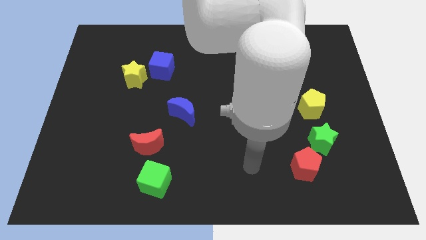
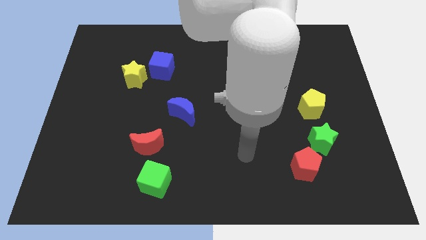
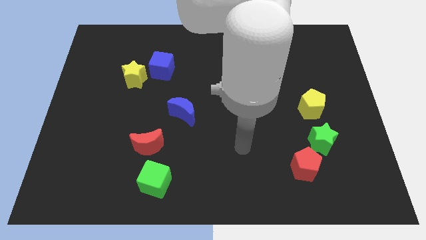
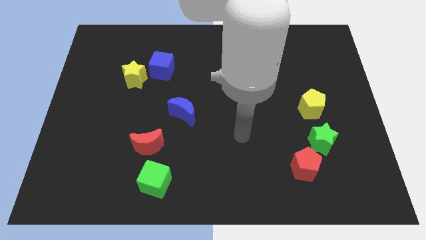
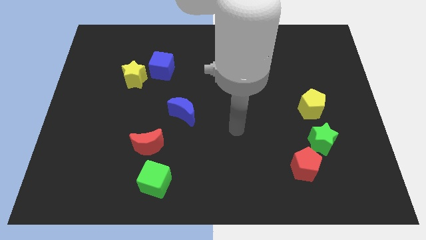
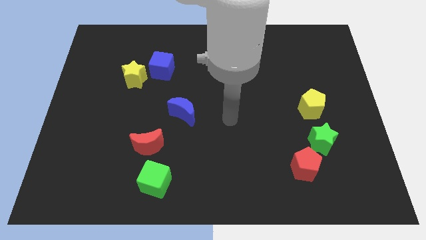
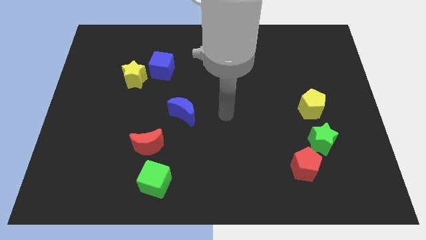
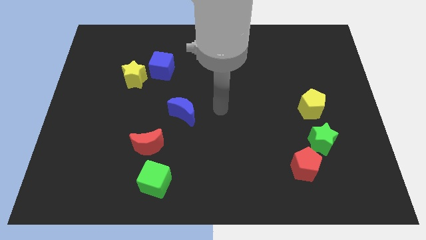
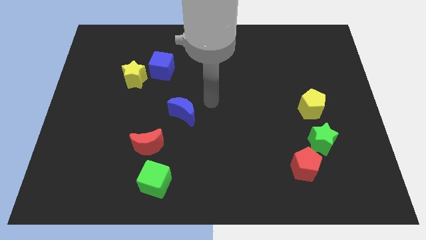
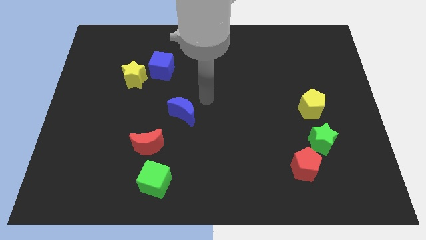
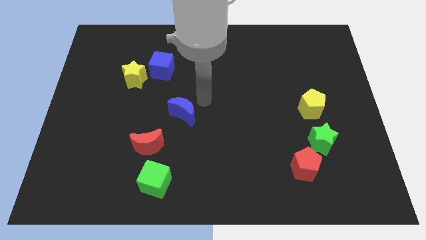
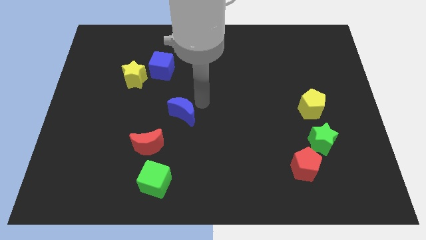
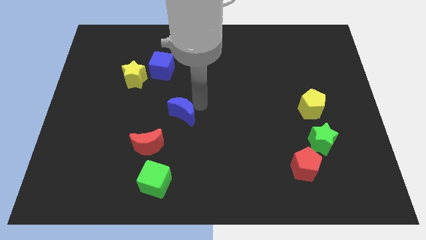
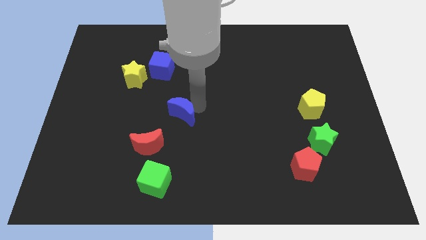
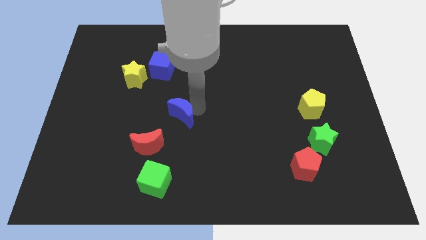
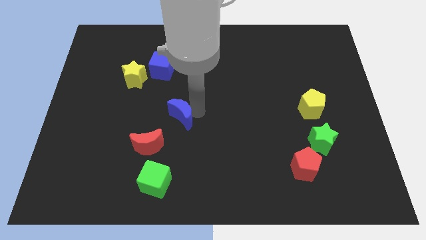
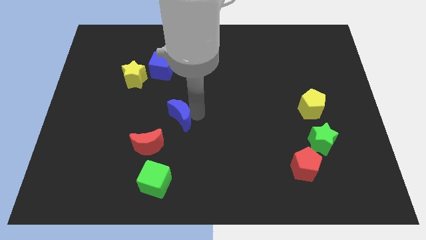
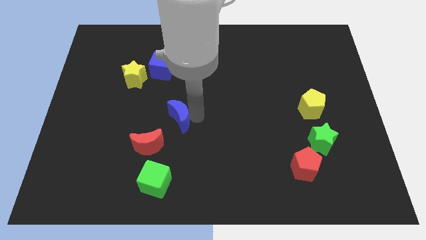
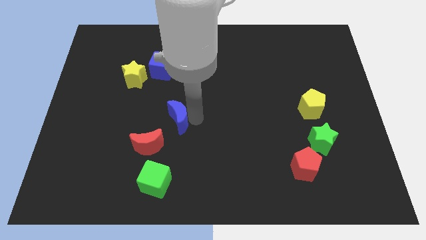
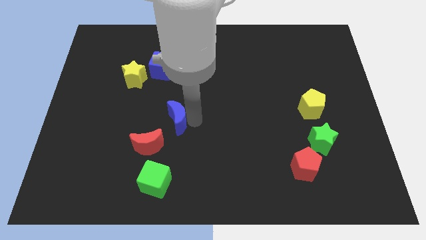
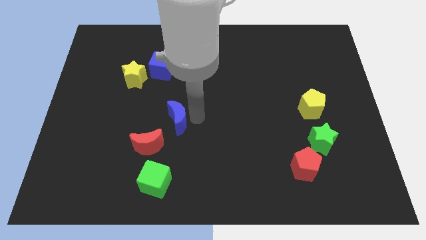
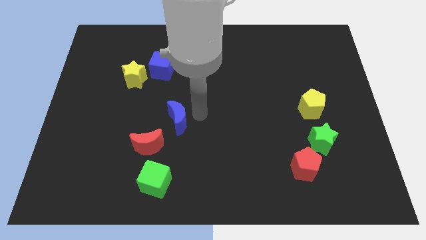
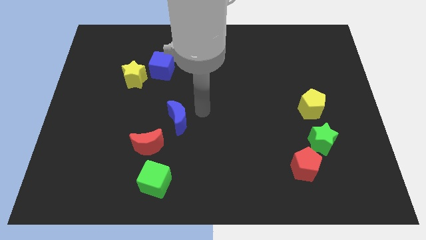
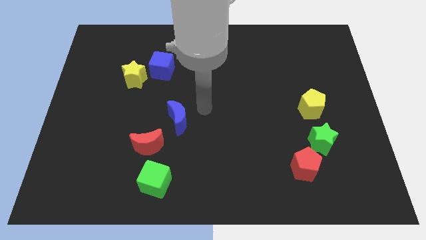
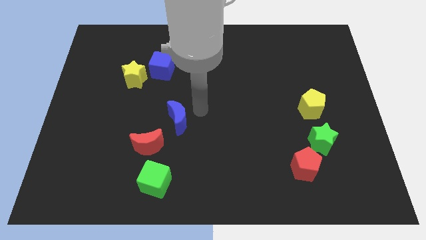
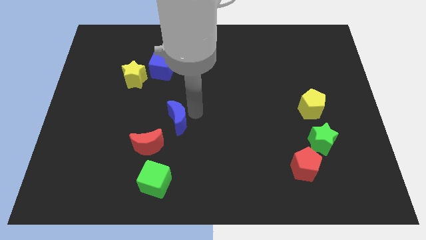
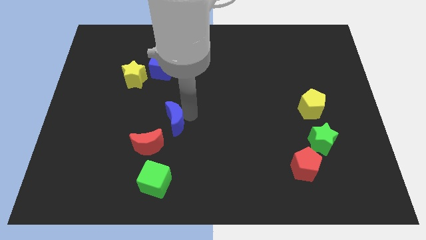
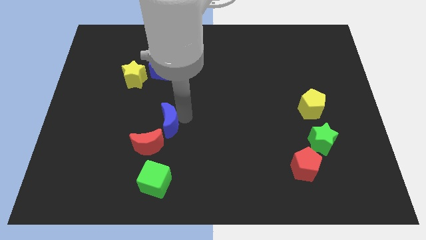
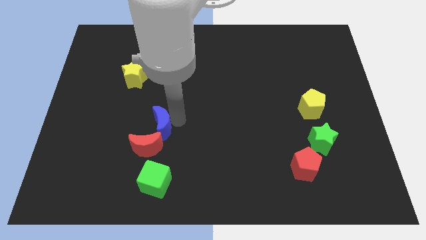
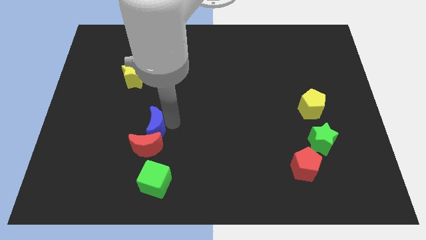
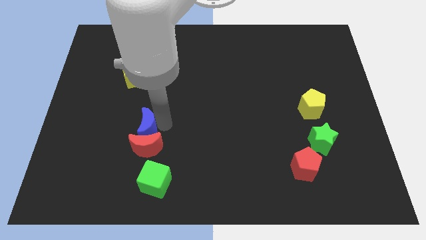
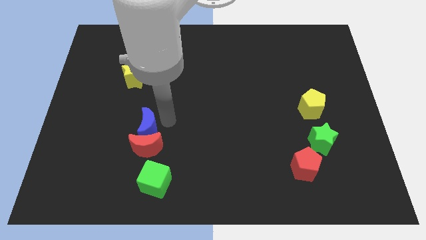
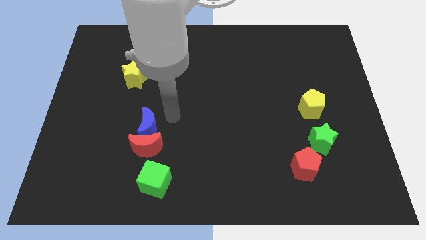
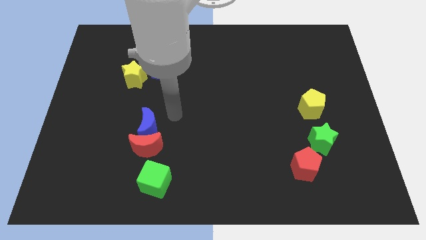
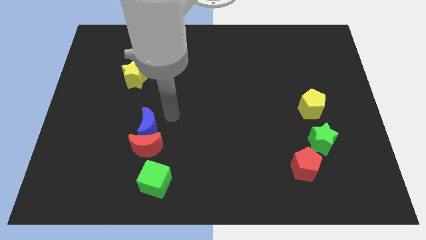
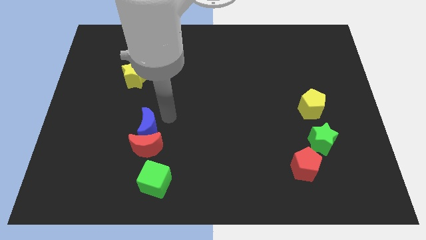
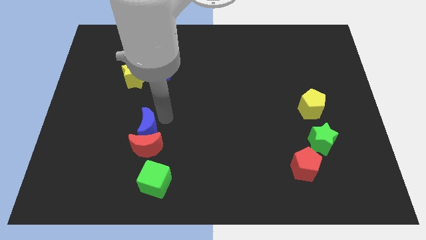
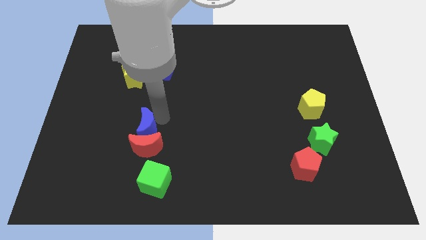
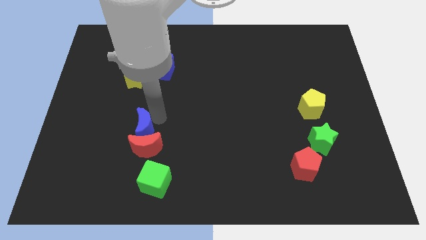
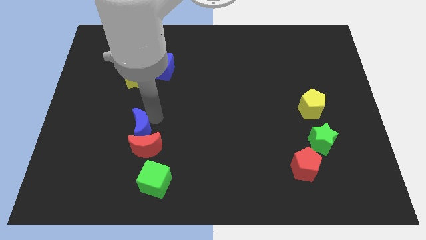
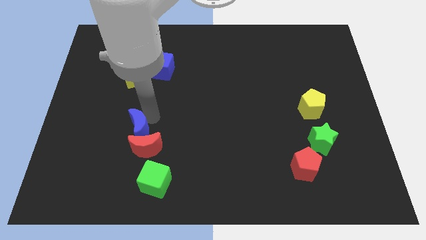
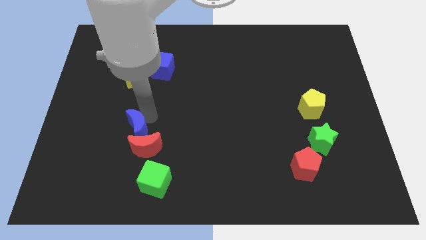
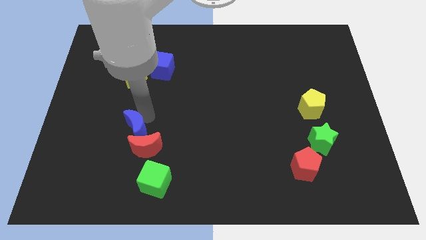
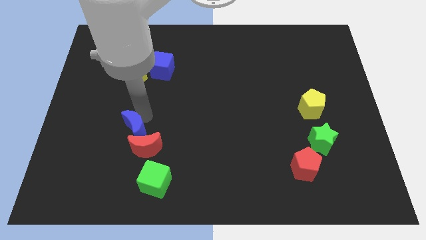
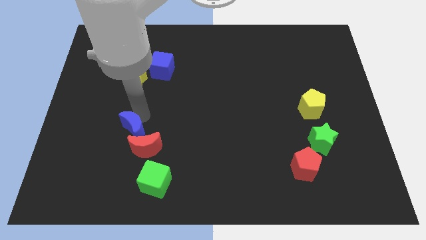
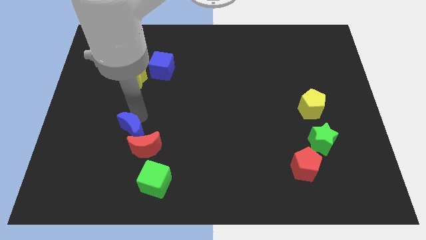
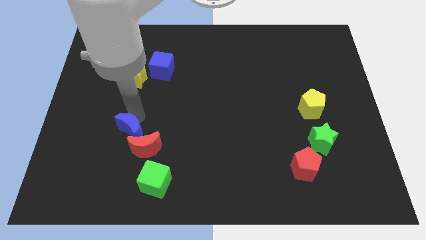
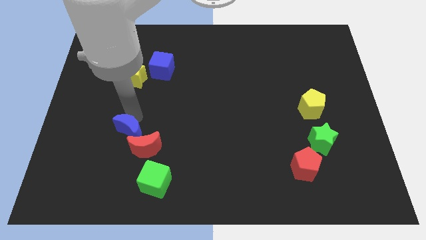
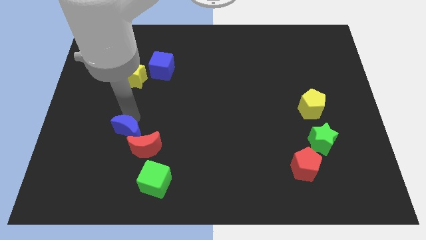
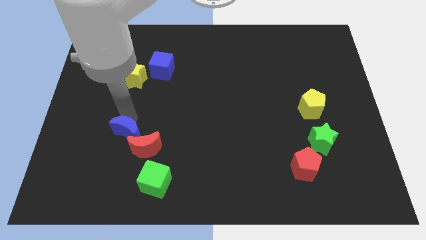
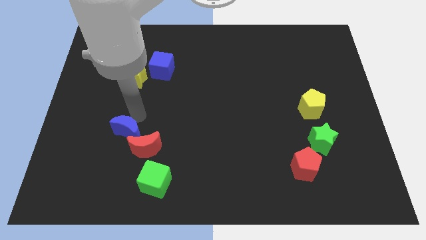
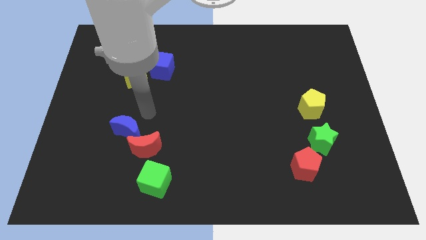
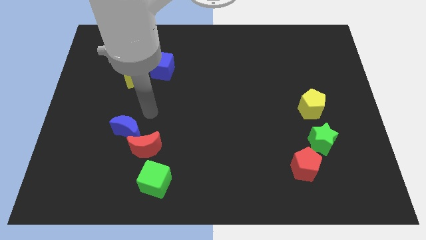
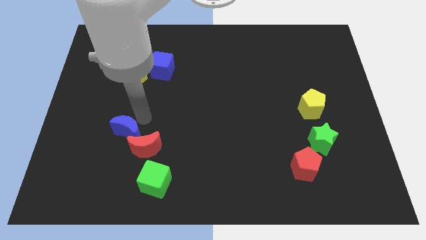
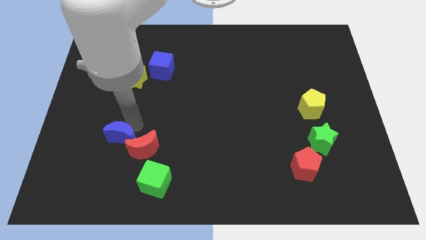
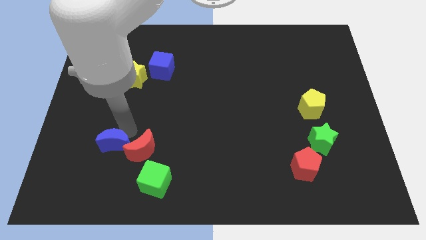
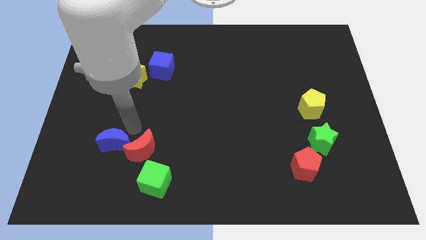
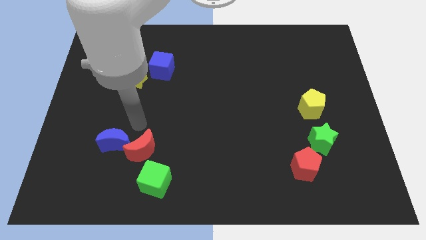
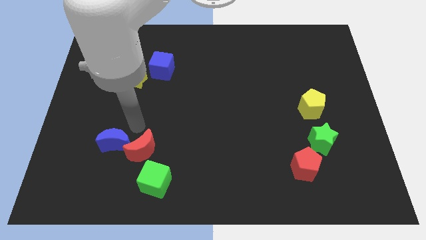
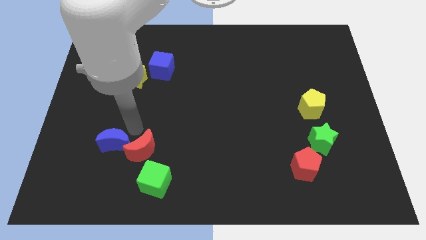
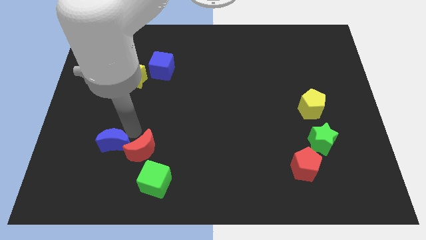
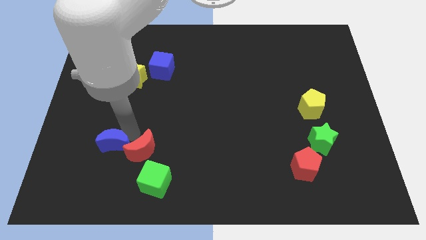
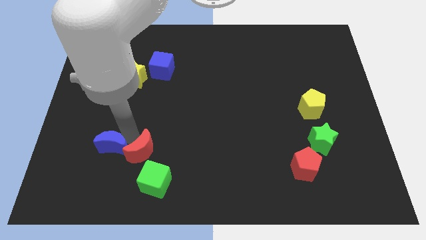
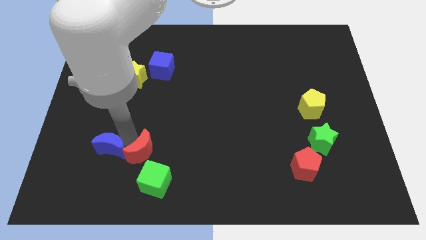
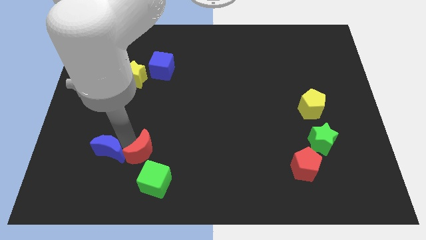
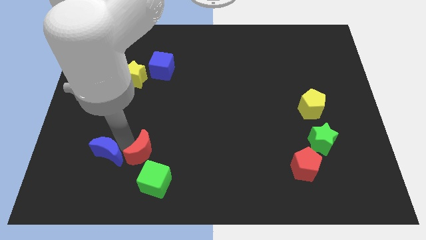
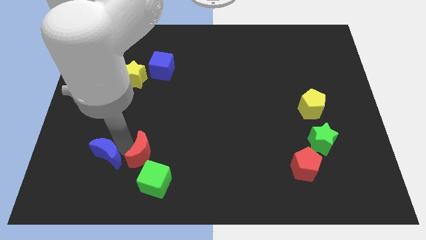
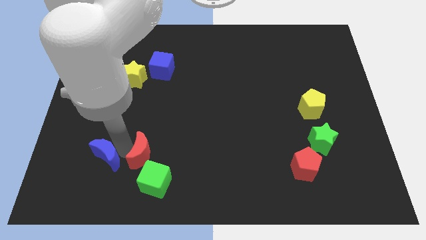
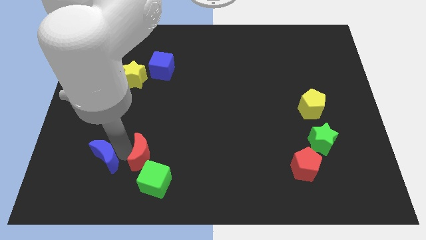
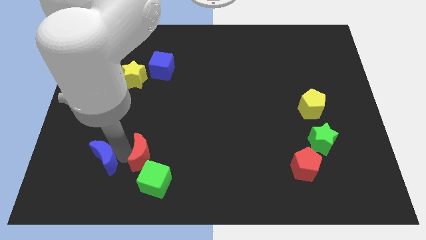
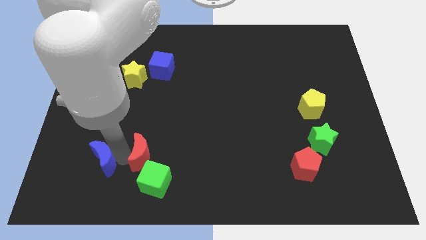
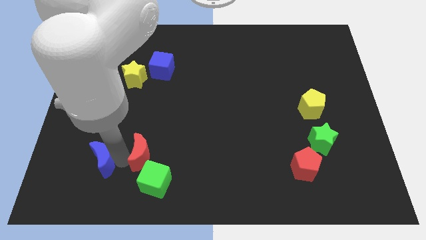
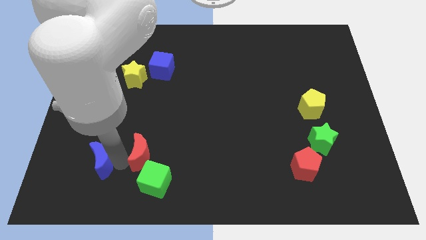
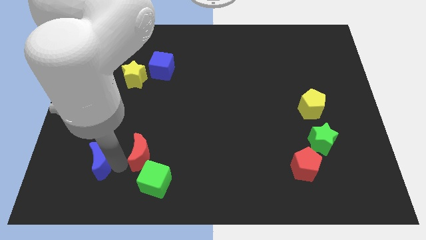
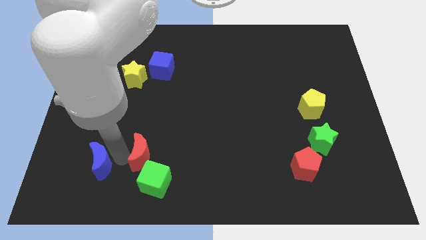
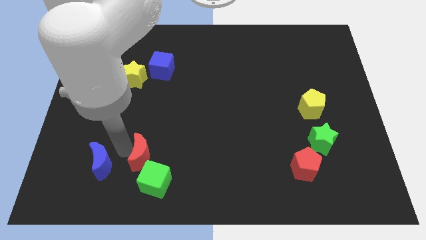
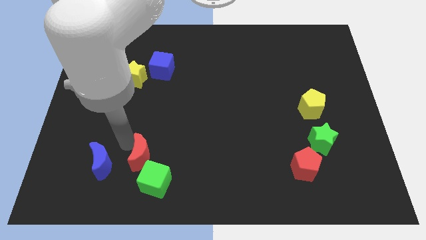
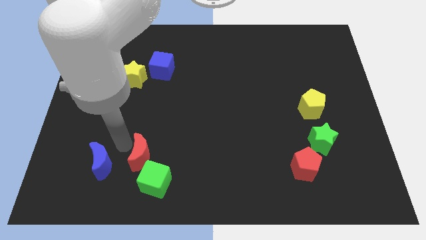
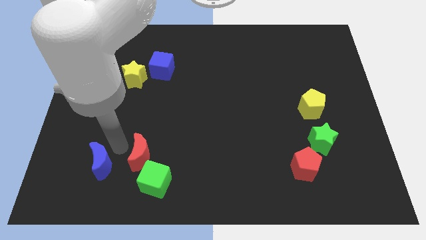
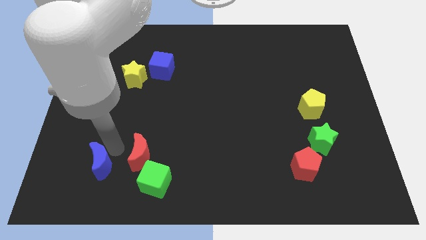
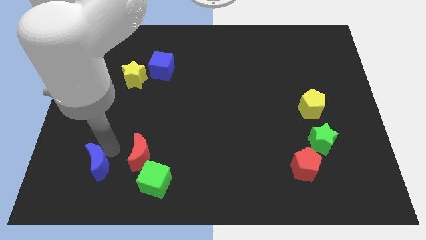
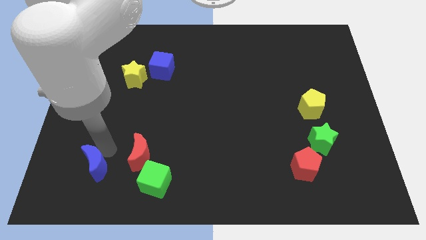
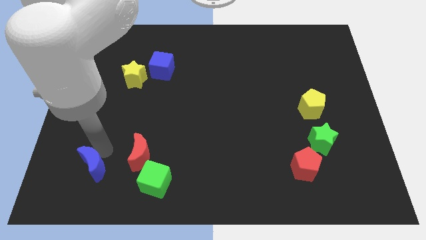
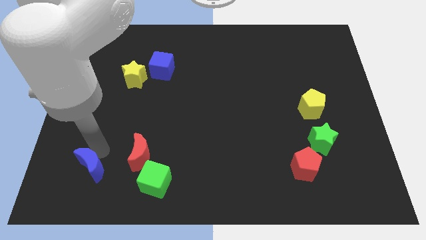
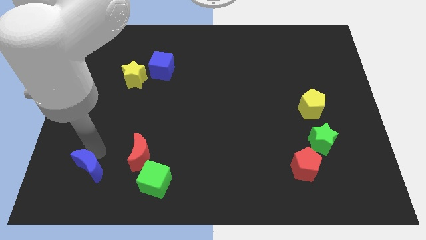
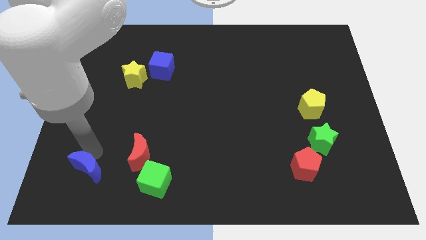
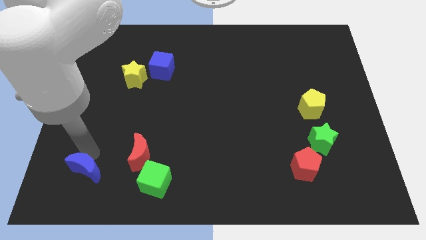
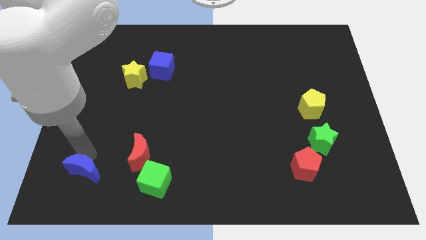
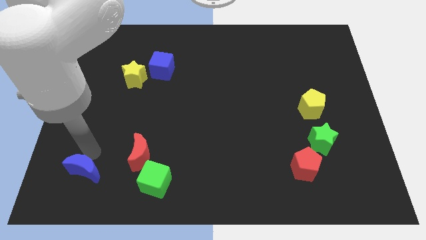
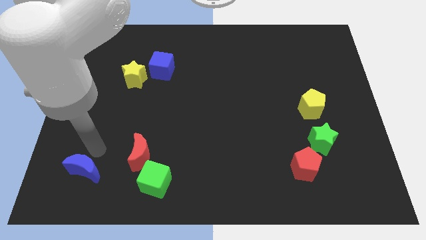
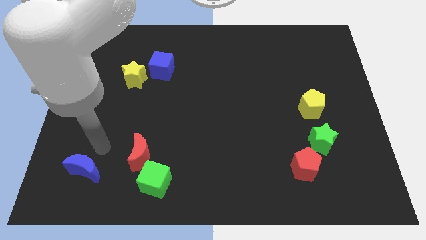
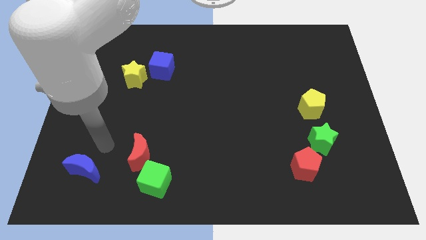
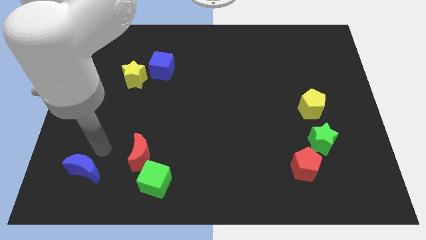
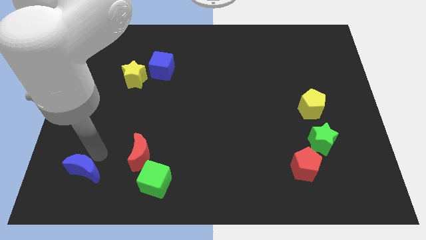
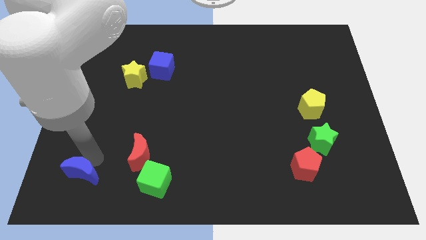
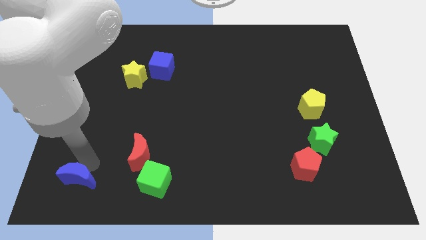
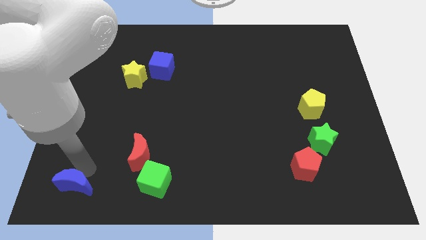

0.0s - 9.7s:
put the blue moon to the bottom left corner
